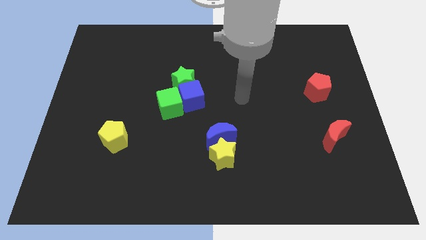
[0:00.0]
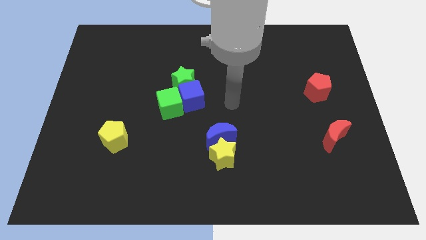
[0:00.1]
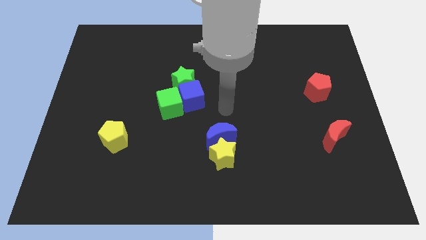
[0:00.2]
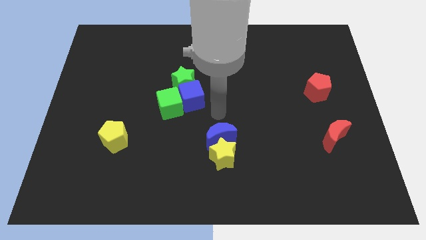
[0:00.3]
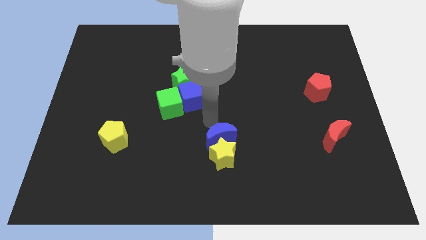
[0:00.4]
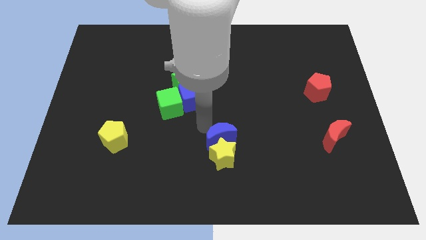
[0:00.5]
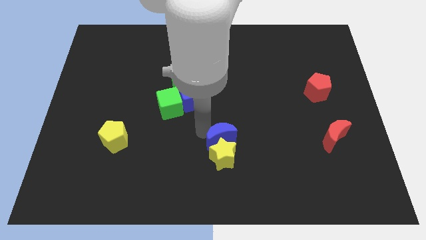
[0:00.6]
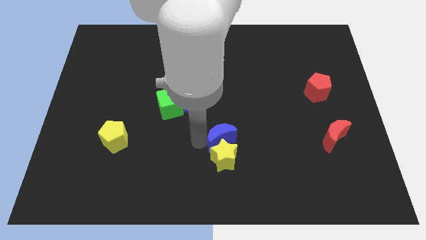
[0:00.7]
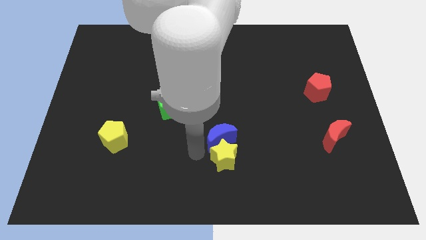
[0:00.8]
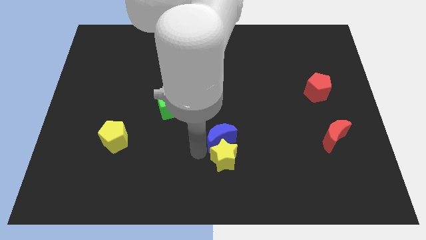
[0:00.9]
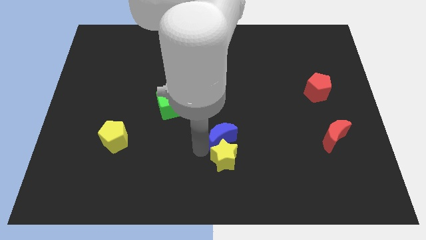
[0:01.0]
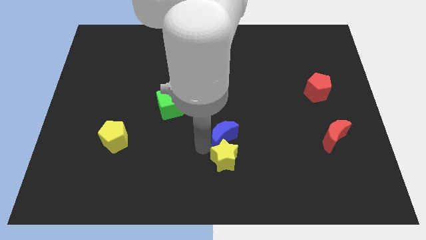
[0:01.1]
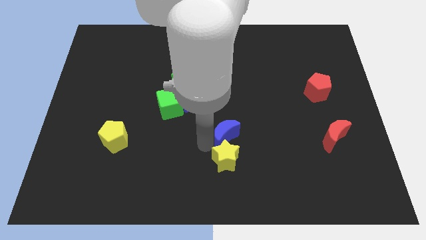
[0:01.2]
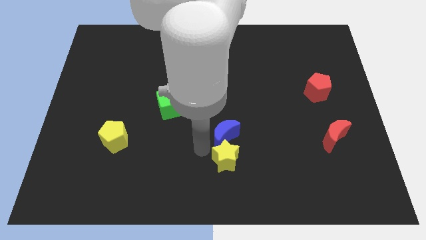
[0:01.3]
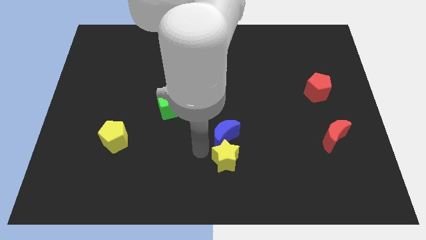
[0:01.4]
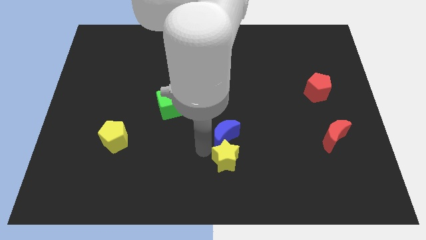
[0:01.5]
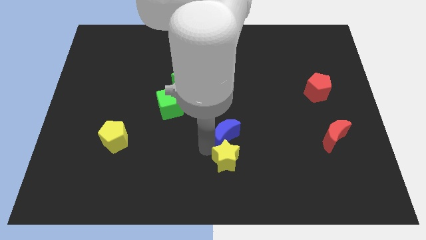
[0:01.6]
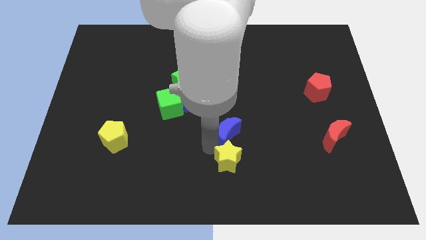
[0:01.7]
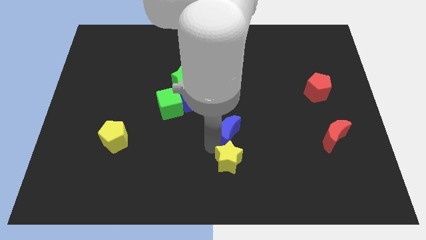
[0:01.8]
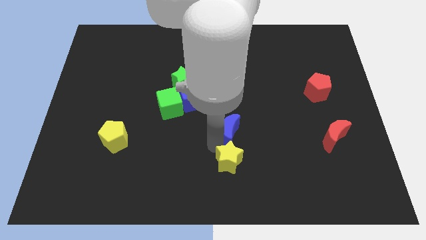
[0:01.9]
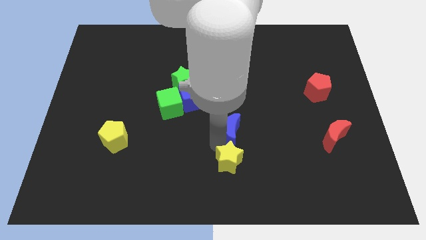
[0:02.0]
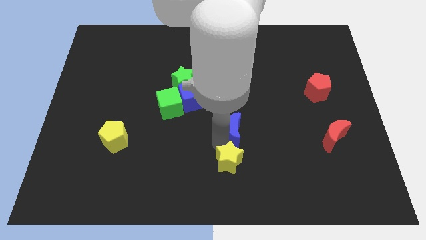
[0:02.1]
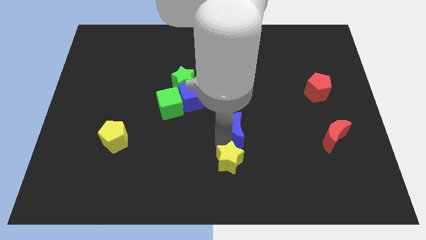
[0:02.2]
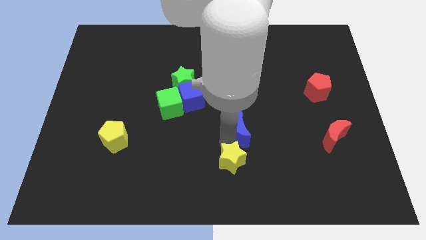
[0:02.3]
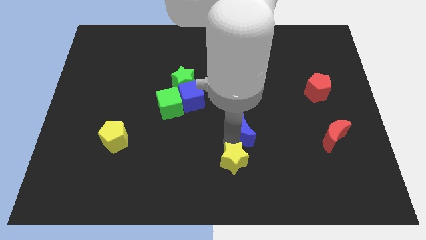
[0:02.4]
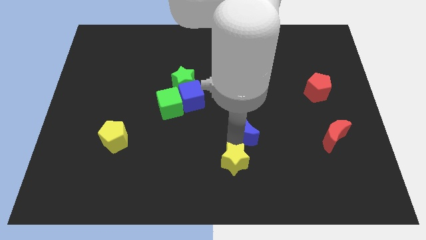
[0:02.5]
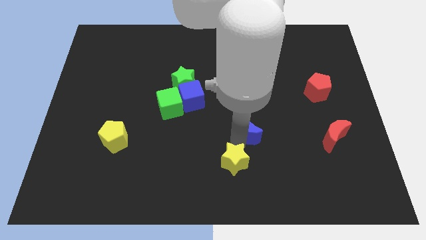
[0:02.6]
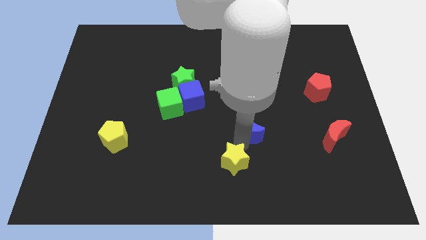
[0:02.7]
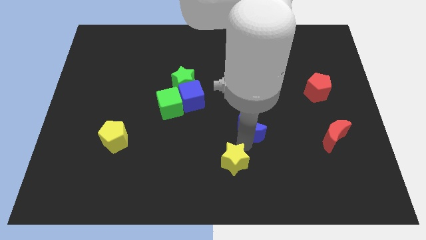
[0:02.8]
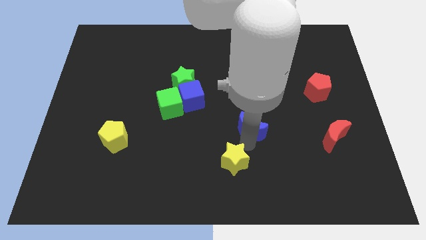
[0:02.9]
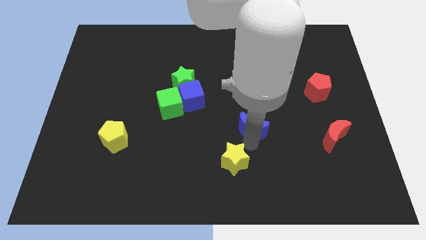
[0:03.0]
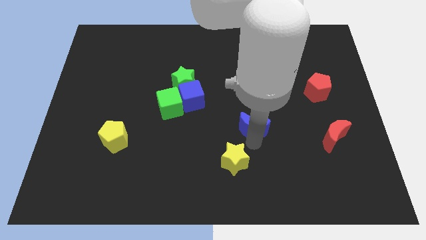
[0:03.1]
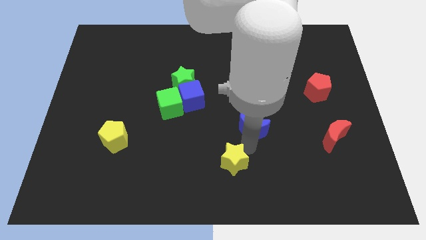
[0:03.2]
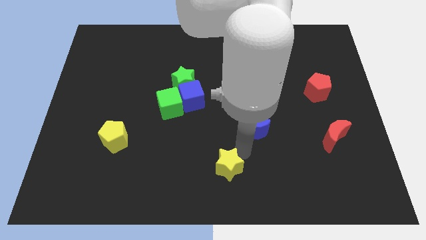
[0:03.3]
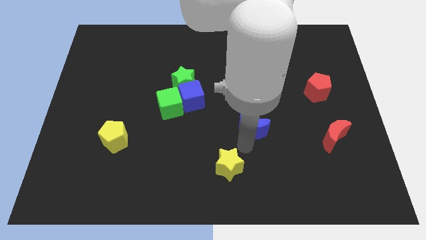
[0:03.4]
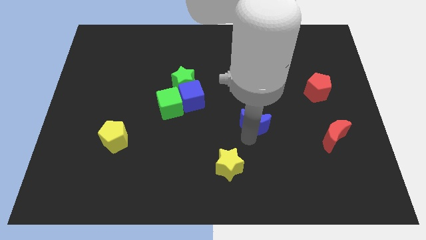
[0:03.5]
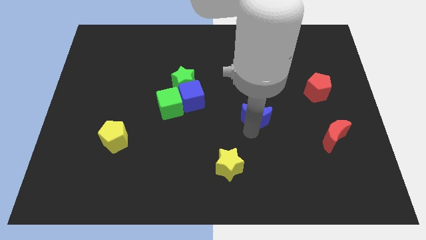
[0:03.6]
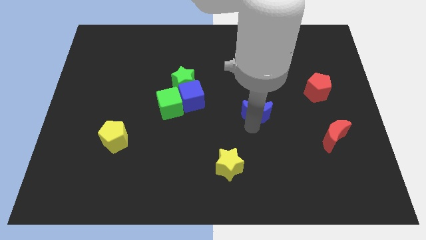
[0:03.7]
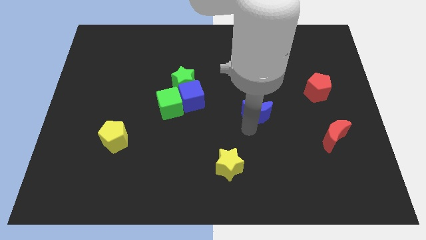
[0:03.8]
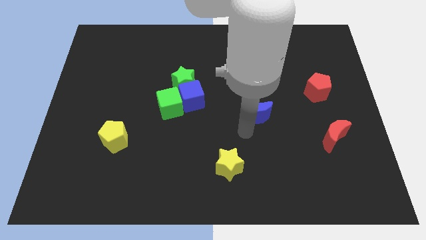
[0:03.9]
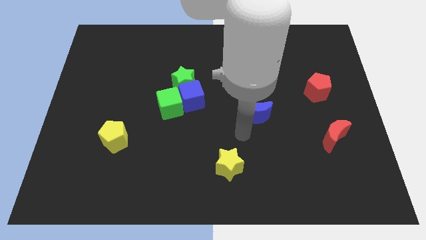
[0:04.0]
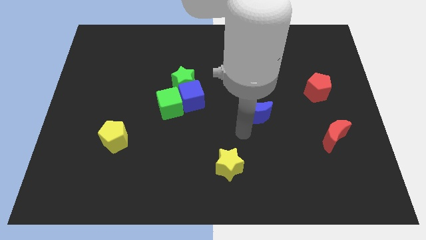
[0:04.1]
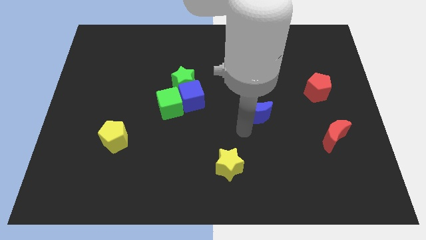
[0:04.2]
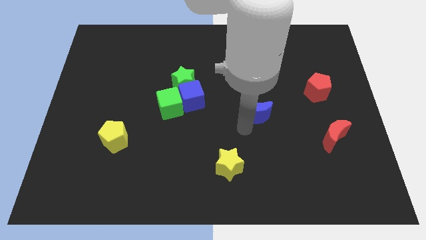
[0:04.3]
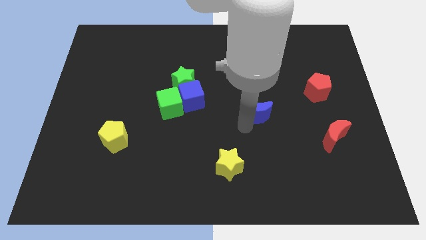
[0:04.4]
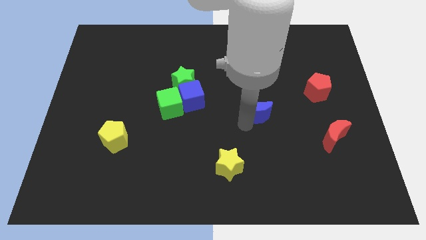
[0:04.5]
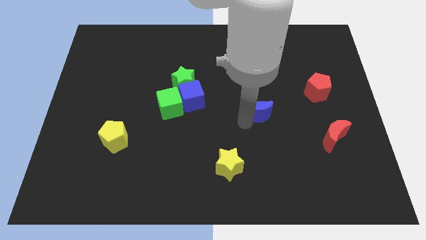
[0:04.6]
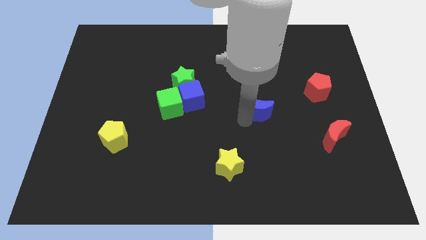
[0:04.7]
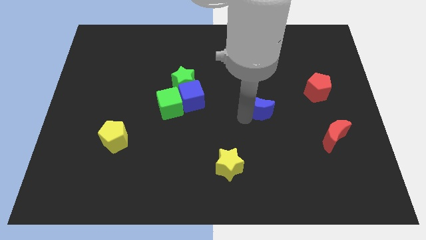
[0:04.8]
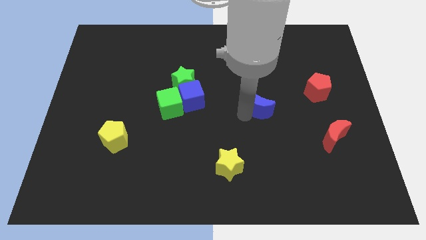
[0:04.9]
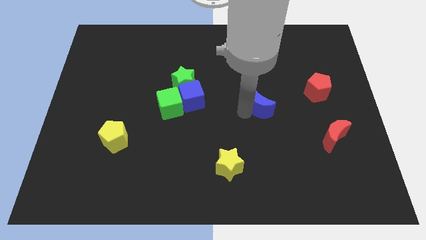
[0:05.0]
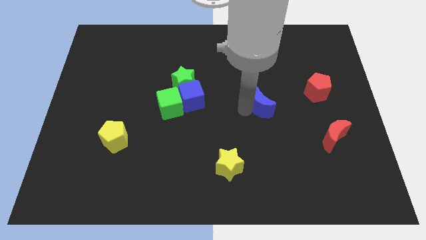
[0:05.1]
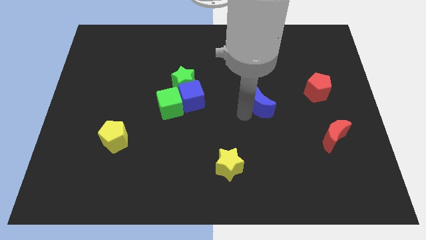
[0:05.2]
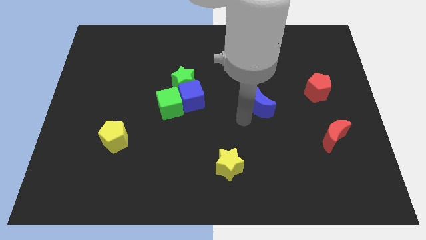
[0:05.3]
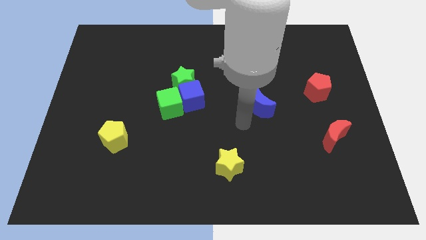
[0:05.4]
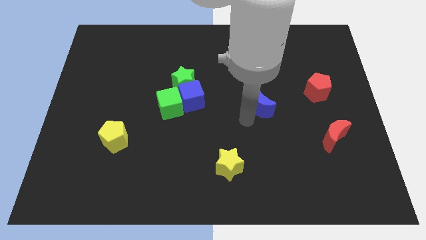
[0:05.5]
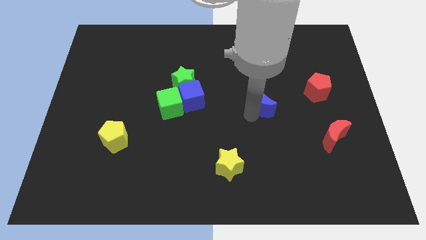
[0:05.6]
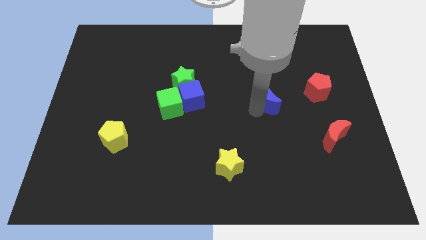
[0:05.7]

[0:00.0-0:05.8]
push the blue moon left of the red pentagon

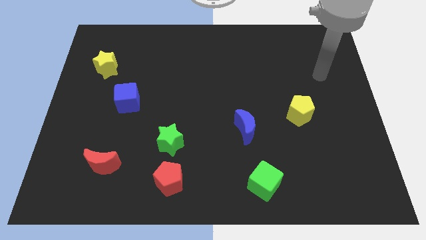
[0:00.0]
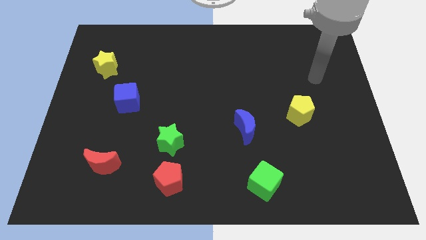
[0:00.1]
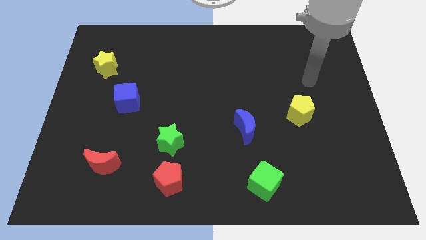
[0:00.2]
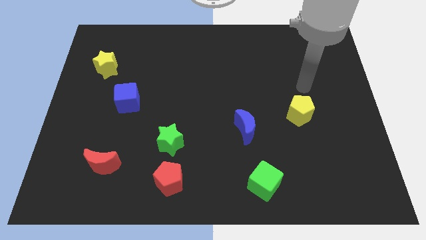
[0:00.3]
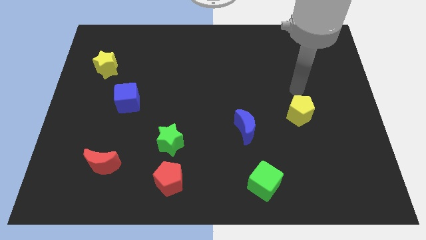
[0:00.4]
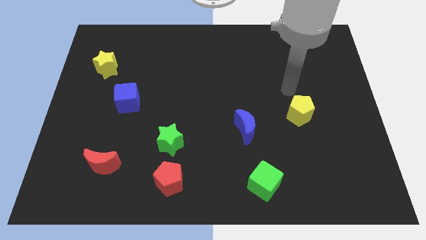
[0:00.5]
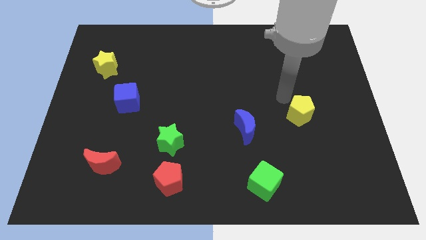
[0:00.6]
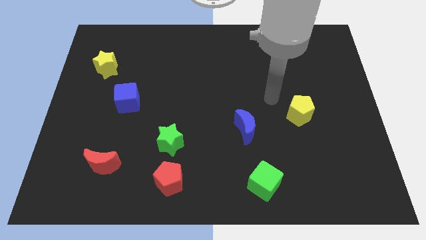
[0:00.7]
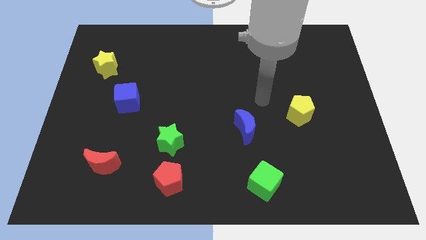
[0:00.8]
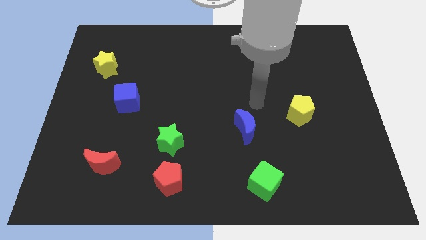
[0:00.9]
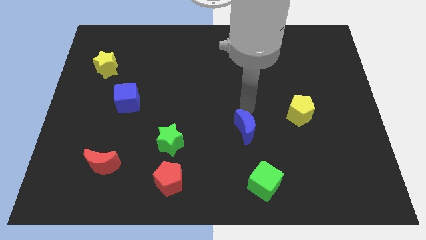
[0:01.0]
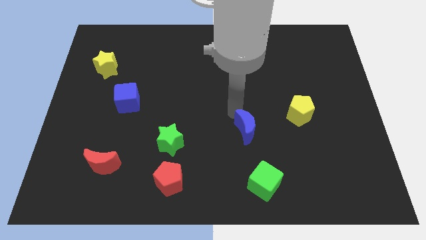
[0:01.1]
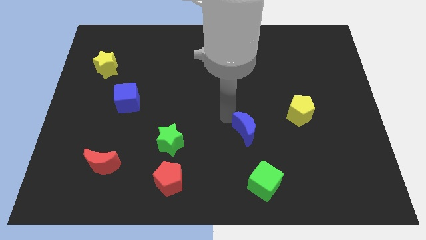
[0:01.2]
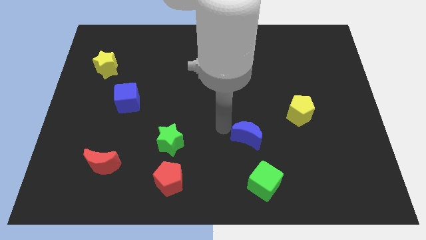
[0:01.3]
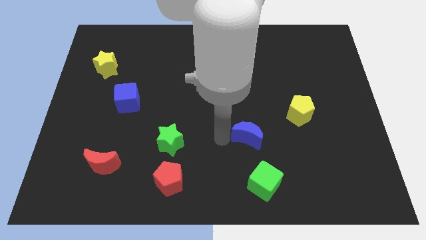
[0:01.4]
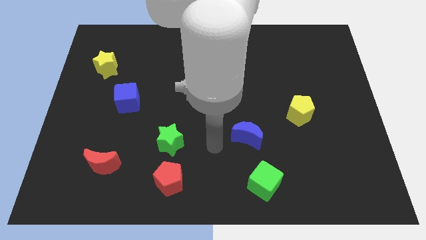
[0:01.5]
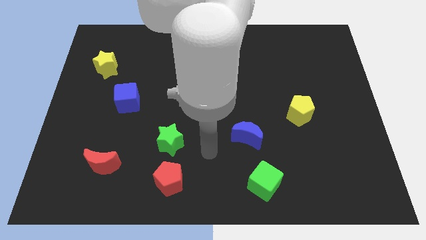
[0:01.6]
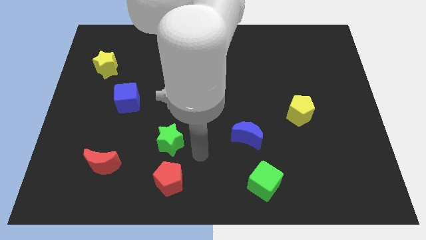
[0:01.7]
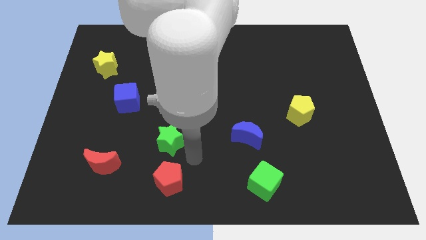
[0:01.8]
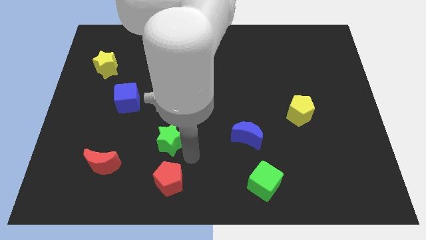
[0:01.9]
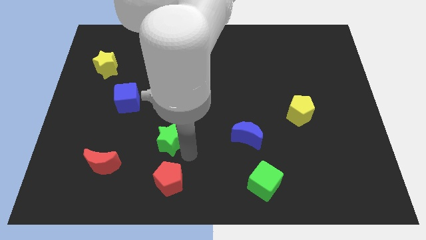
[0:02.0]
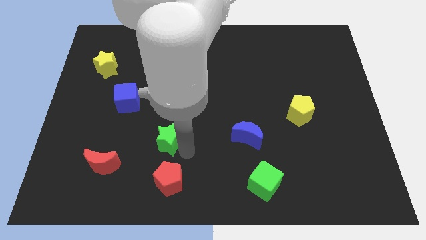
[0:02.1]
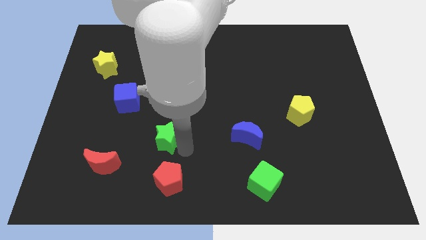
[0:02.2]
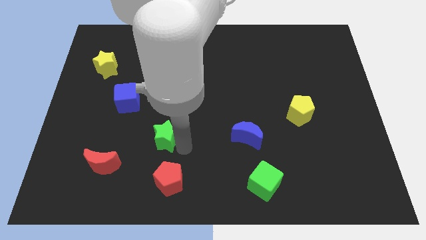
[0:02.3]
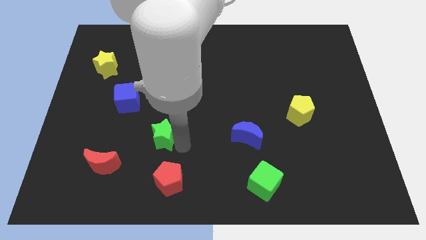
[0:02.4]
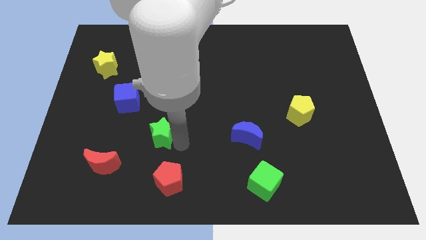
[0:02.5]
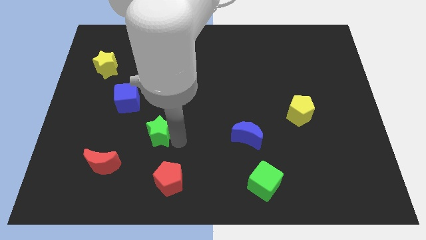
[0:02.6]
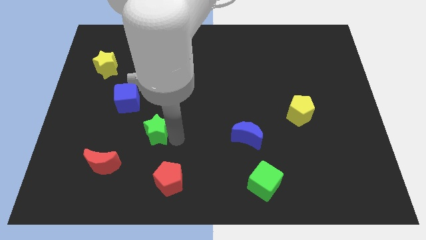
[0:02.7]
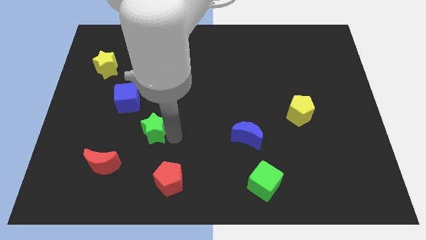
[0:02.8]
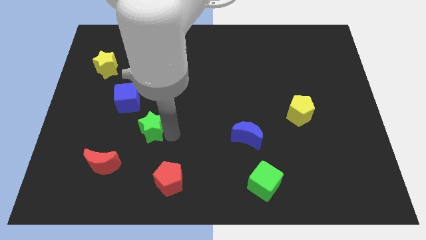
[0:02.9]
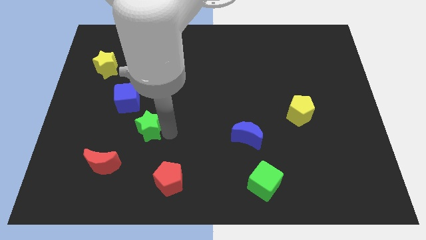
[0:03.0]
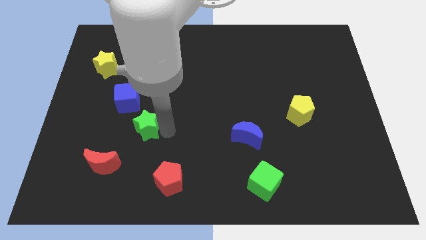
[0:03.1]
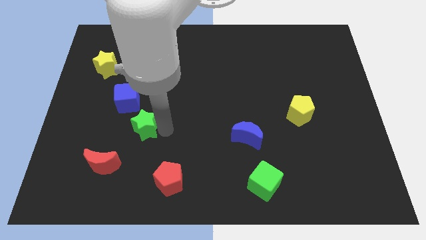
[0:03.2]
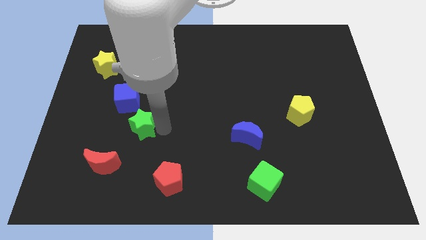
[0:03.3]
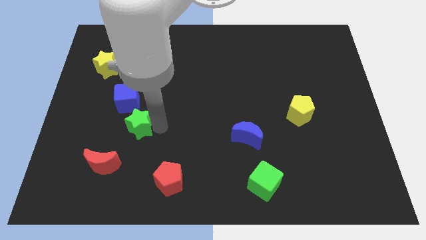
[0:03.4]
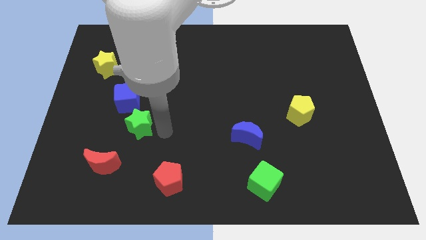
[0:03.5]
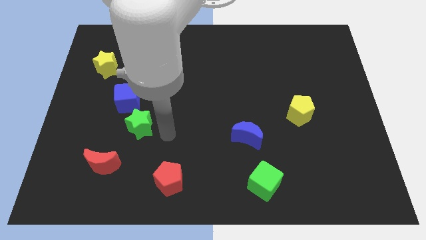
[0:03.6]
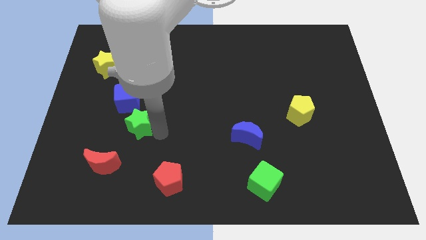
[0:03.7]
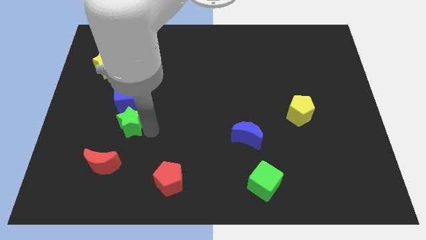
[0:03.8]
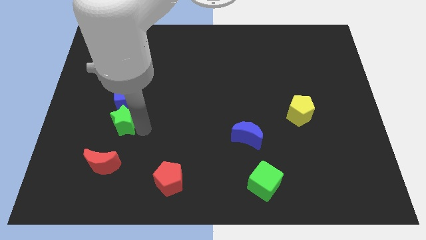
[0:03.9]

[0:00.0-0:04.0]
move the green star diagonally down and to the left of the blue cube
